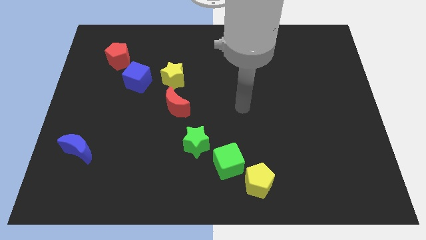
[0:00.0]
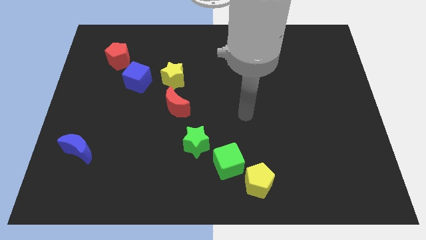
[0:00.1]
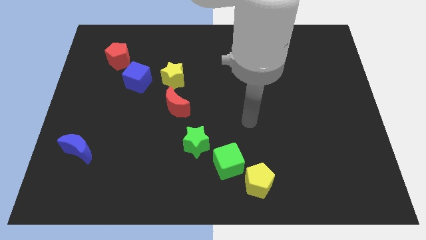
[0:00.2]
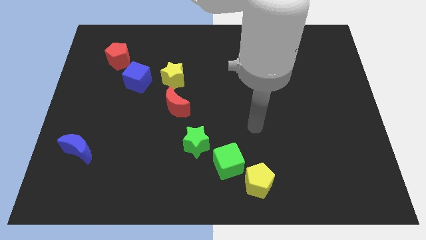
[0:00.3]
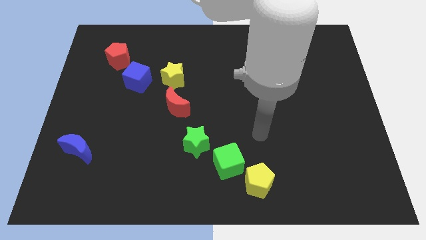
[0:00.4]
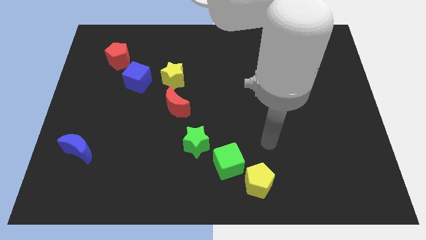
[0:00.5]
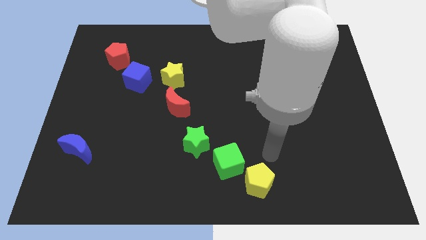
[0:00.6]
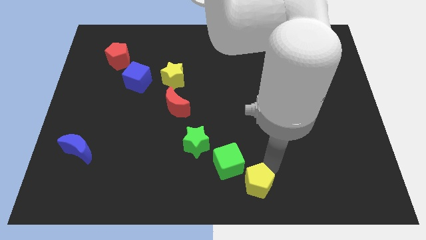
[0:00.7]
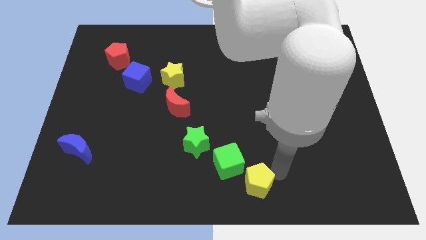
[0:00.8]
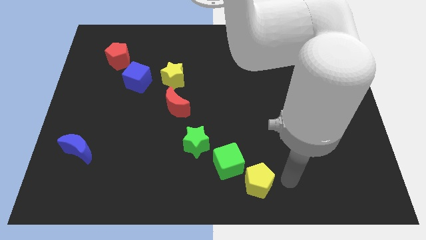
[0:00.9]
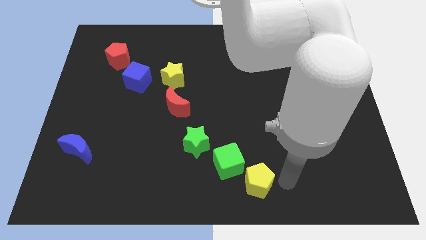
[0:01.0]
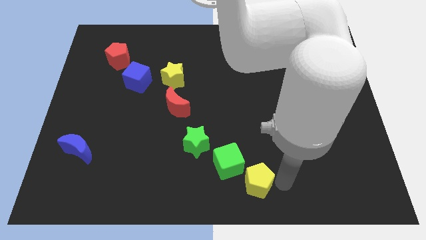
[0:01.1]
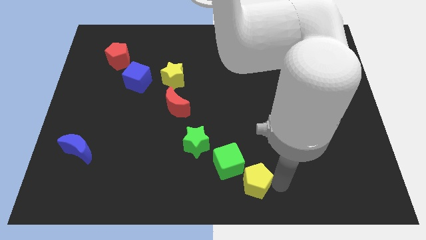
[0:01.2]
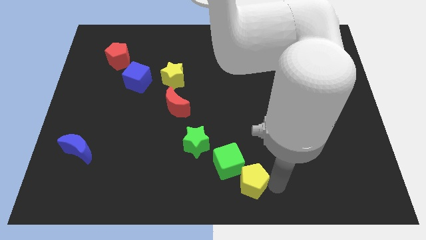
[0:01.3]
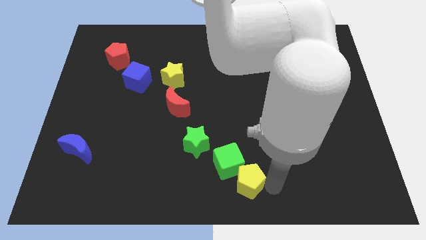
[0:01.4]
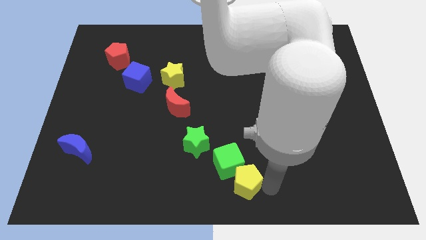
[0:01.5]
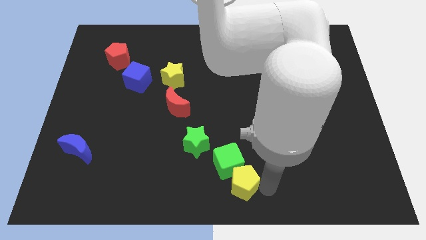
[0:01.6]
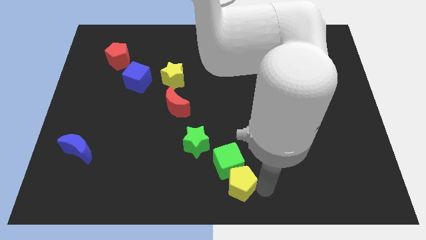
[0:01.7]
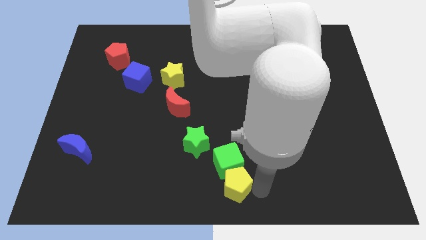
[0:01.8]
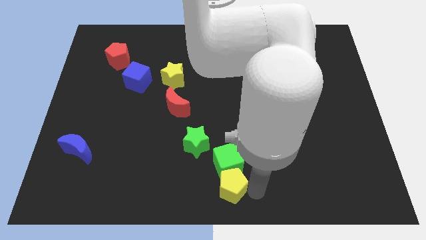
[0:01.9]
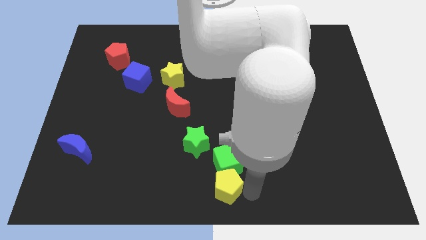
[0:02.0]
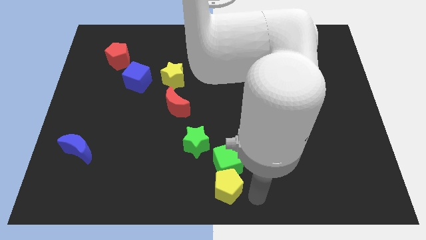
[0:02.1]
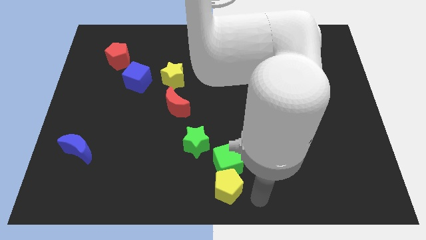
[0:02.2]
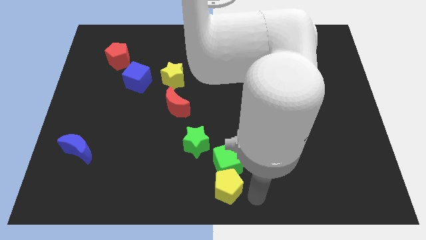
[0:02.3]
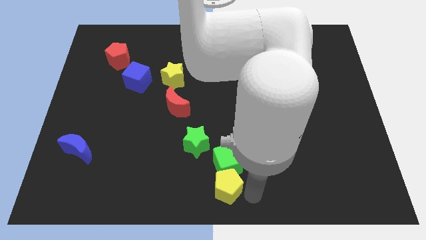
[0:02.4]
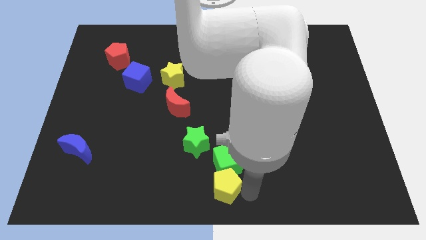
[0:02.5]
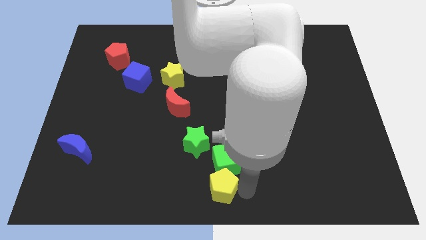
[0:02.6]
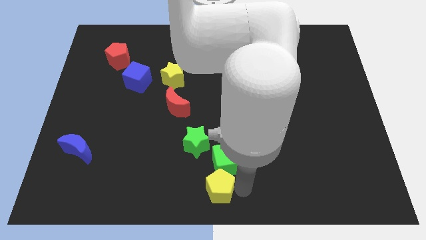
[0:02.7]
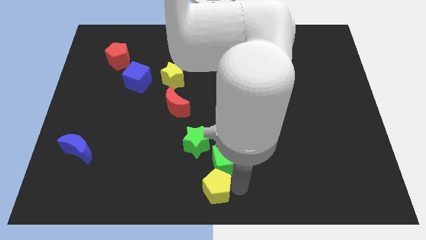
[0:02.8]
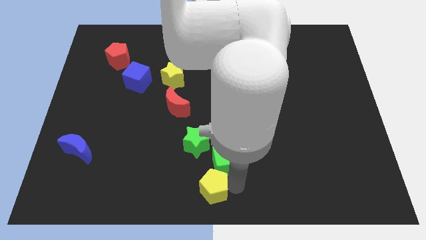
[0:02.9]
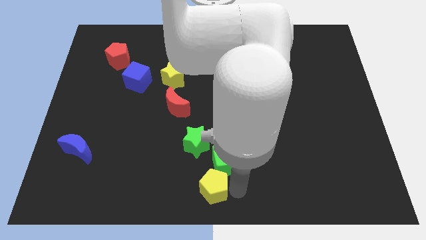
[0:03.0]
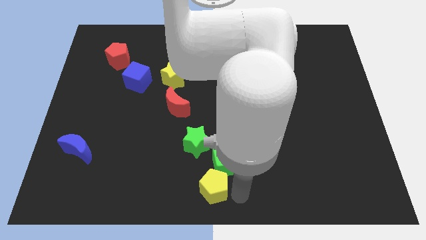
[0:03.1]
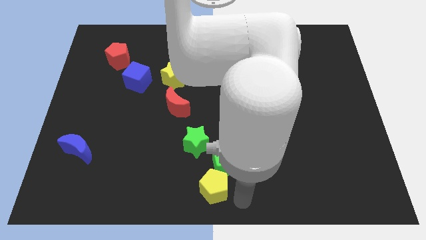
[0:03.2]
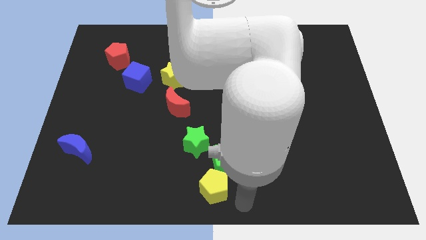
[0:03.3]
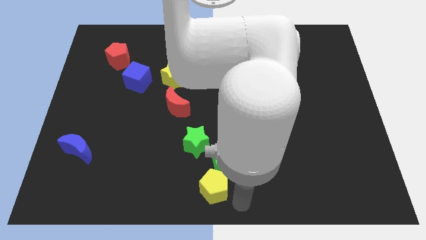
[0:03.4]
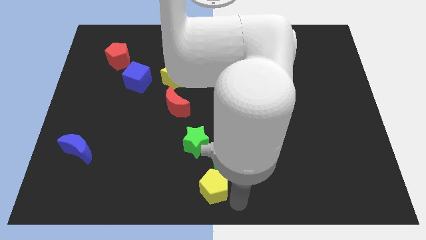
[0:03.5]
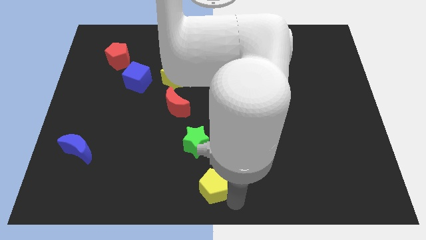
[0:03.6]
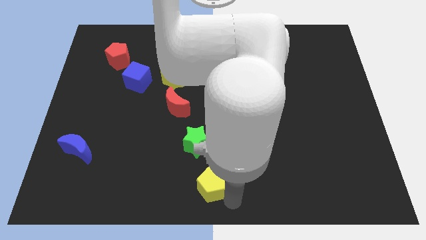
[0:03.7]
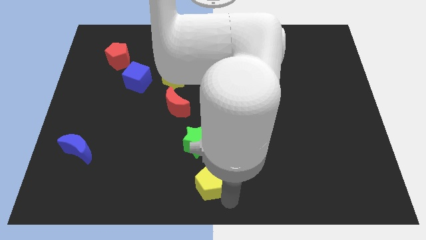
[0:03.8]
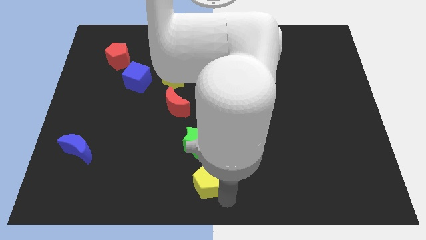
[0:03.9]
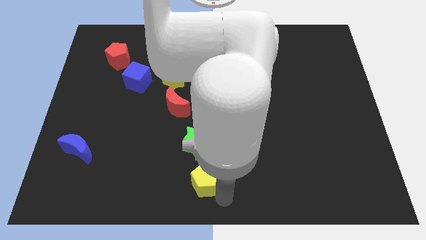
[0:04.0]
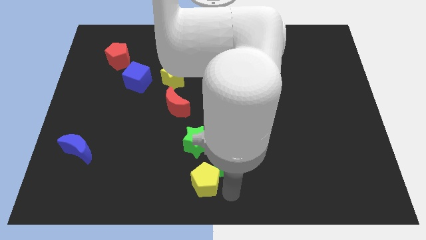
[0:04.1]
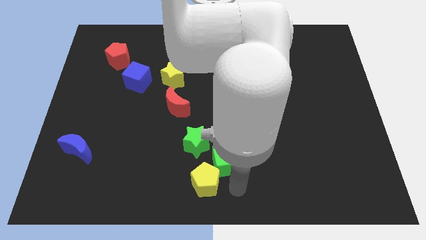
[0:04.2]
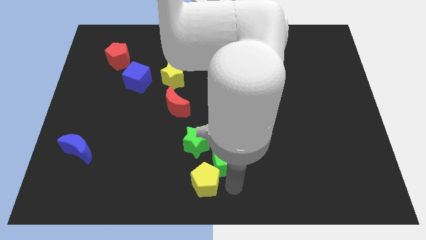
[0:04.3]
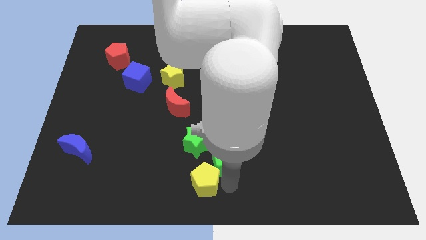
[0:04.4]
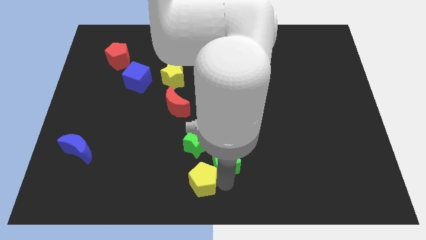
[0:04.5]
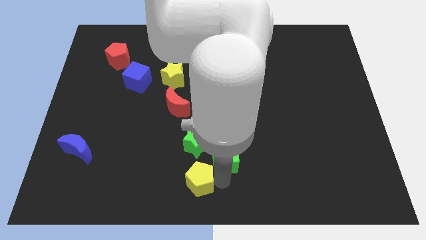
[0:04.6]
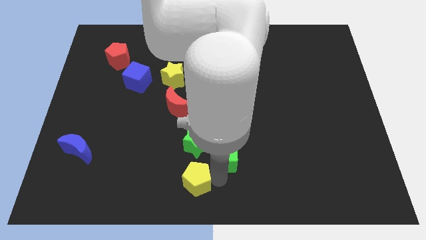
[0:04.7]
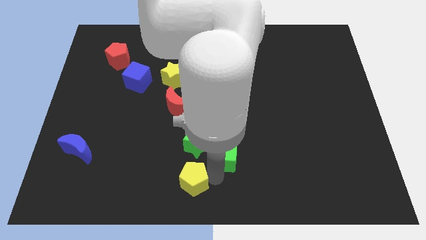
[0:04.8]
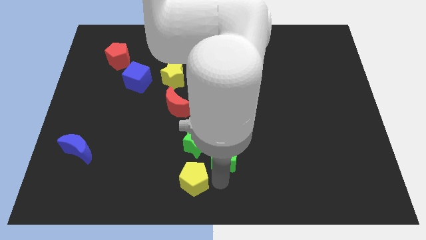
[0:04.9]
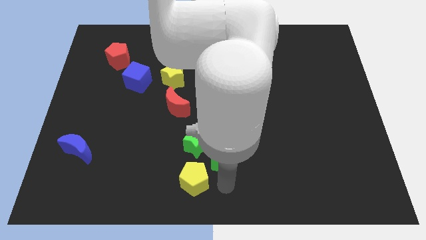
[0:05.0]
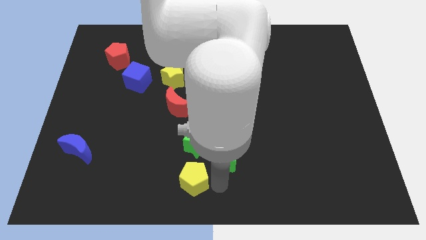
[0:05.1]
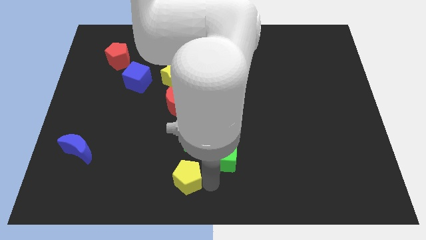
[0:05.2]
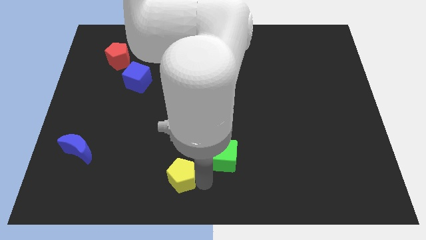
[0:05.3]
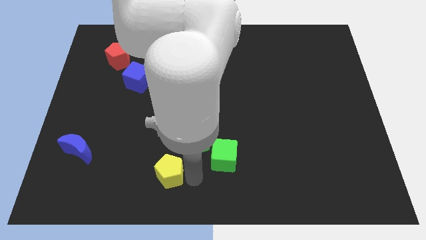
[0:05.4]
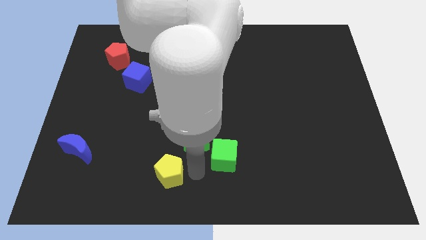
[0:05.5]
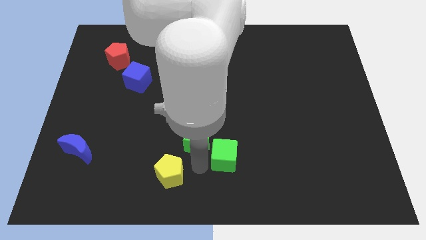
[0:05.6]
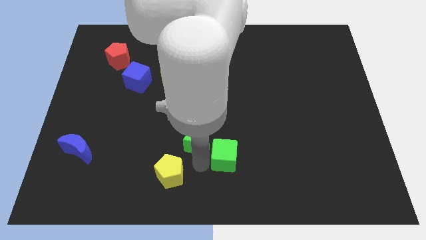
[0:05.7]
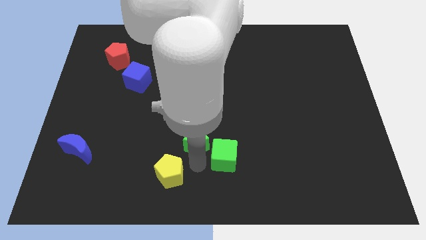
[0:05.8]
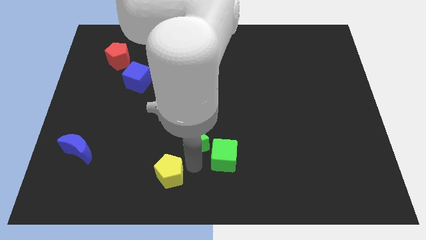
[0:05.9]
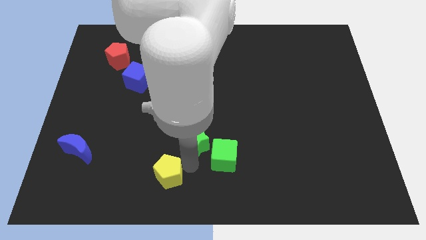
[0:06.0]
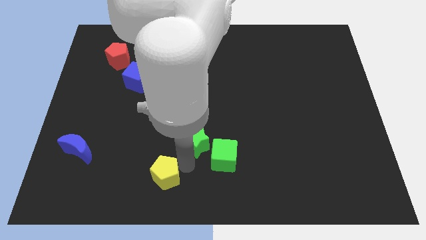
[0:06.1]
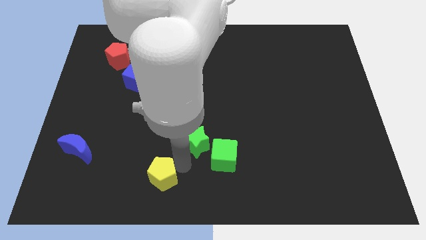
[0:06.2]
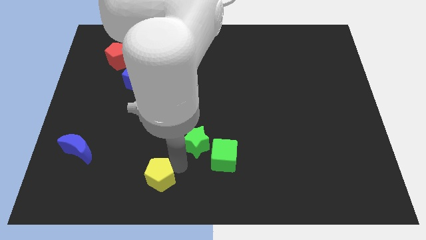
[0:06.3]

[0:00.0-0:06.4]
push the yellow pentagon left

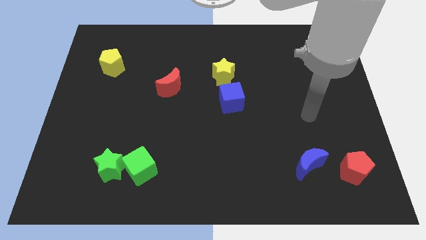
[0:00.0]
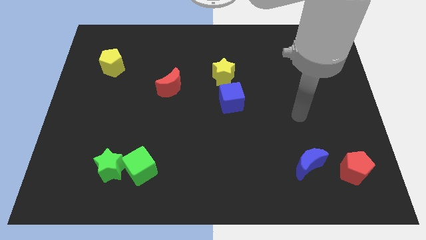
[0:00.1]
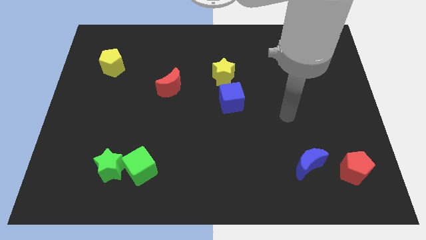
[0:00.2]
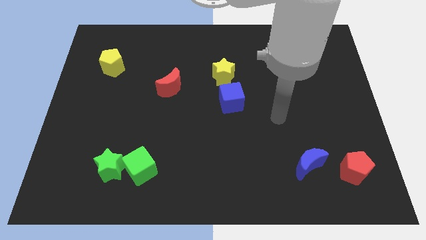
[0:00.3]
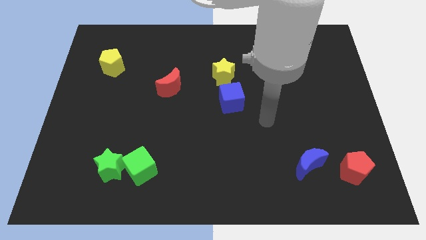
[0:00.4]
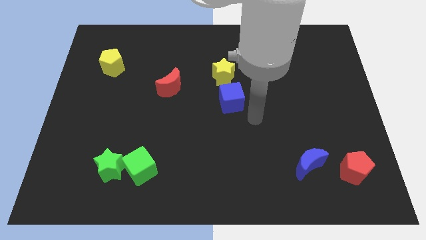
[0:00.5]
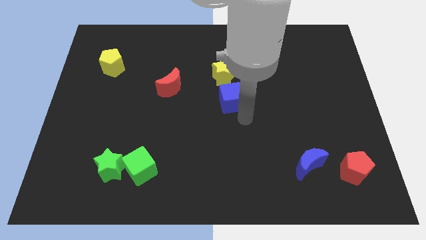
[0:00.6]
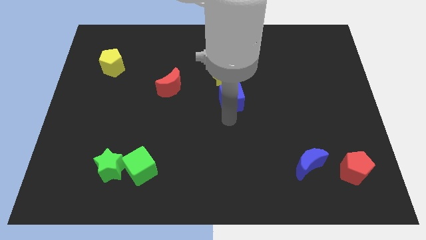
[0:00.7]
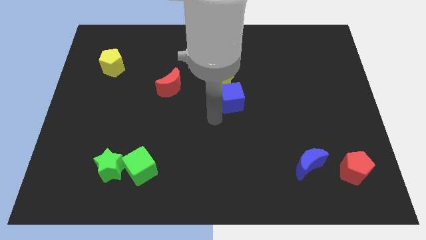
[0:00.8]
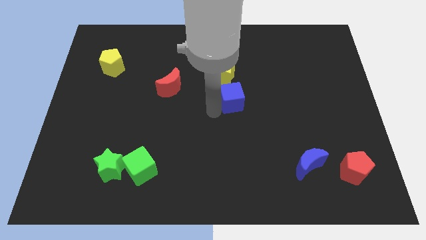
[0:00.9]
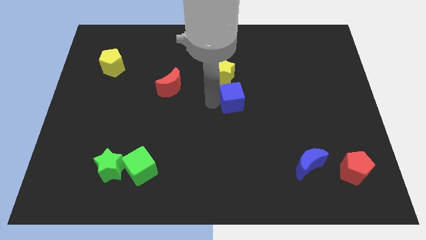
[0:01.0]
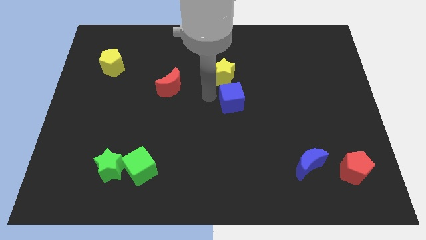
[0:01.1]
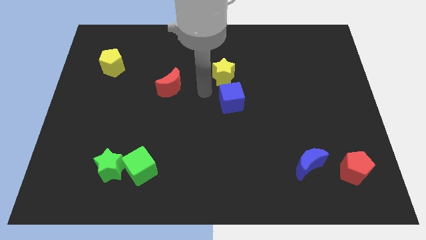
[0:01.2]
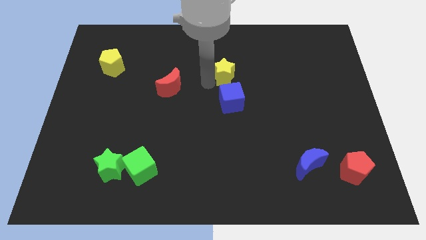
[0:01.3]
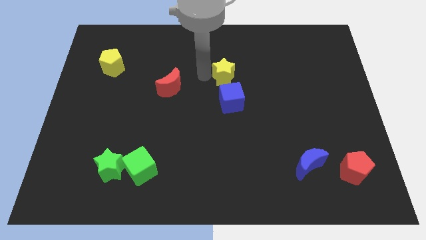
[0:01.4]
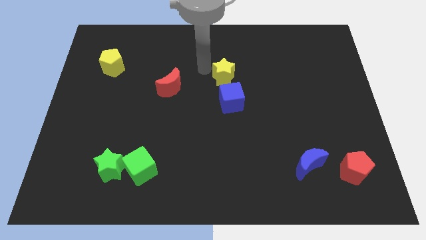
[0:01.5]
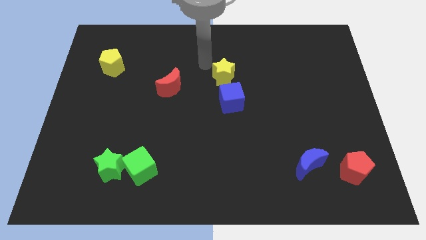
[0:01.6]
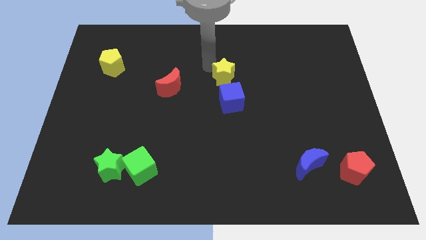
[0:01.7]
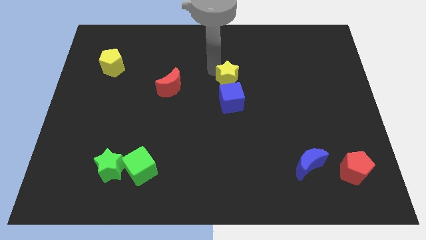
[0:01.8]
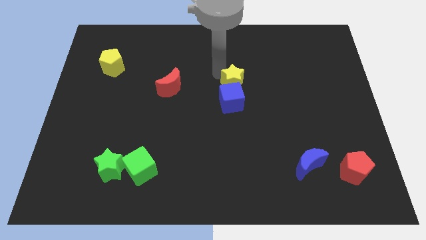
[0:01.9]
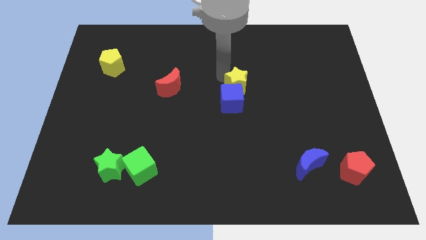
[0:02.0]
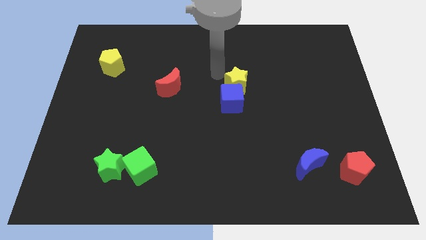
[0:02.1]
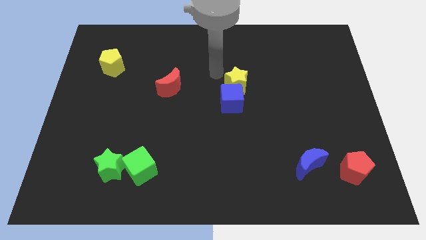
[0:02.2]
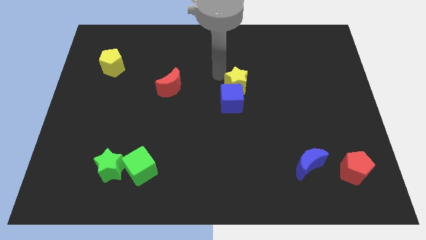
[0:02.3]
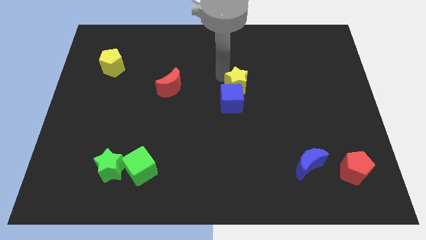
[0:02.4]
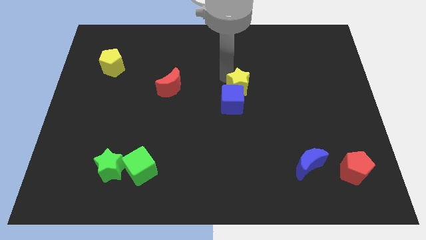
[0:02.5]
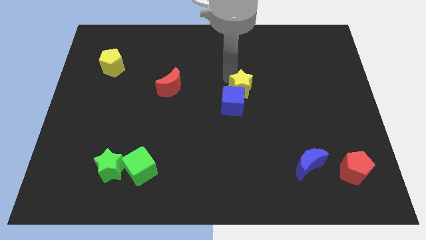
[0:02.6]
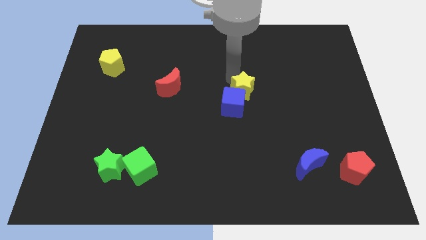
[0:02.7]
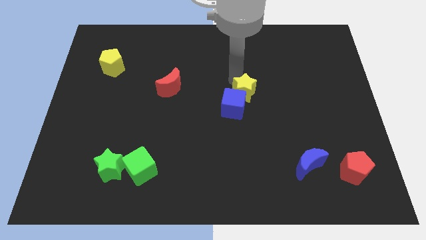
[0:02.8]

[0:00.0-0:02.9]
push the yellow star downwards and then to the right somewhat
